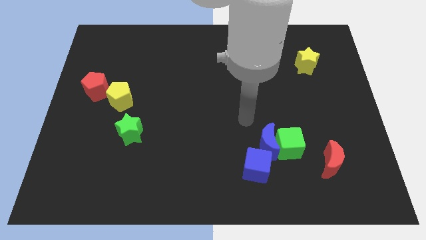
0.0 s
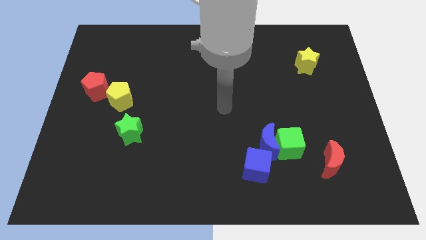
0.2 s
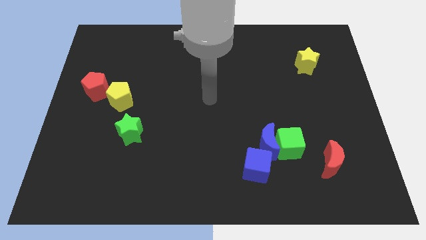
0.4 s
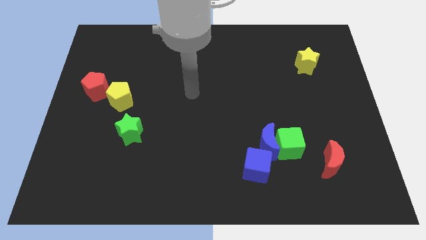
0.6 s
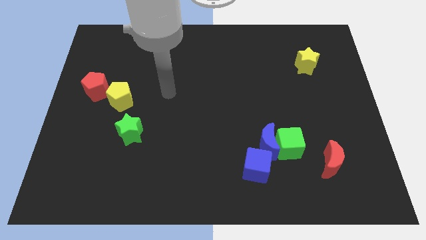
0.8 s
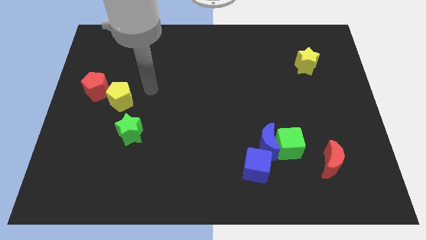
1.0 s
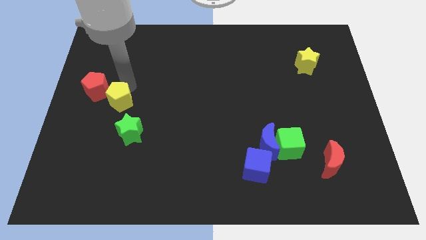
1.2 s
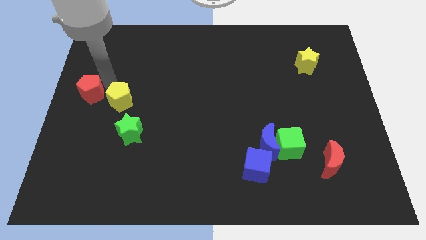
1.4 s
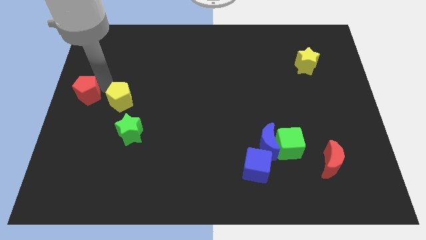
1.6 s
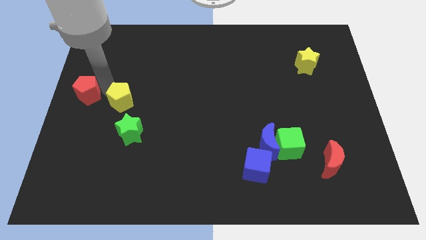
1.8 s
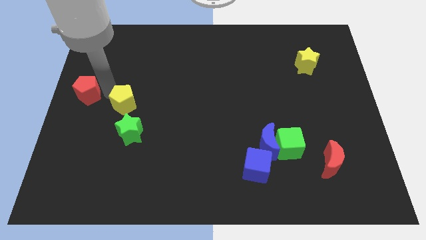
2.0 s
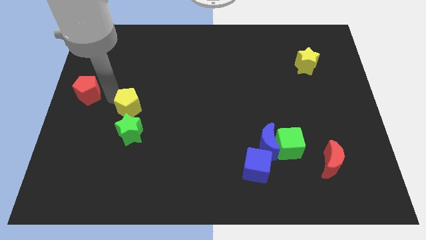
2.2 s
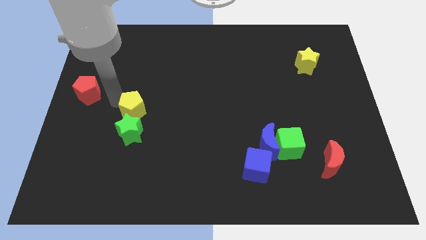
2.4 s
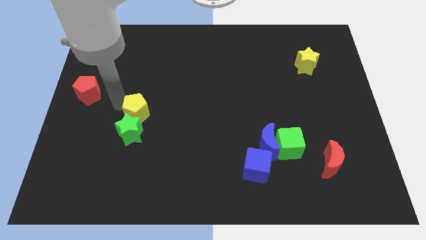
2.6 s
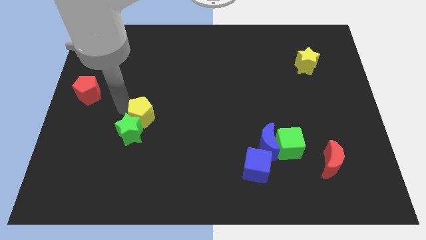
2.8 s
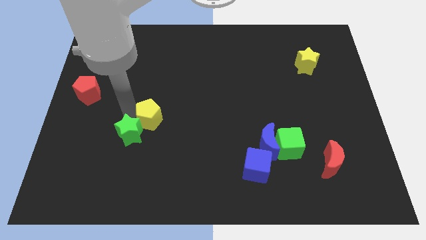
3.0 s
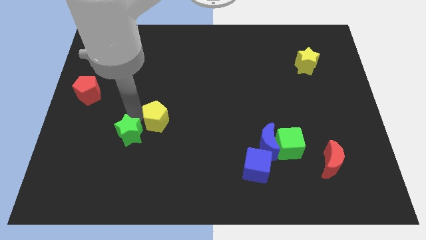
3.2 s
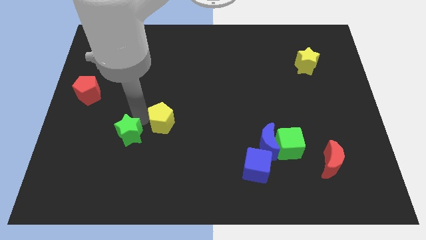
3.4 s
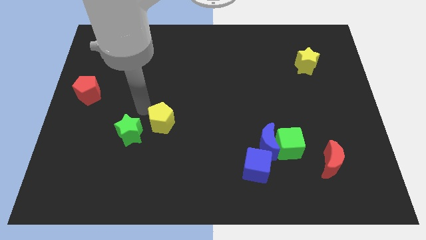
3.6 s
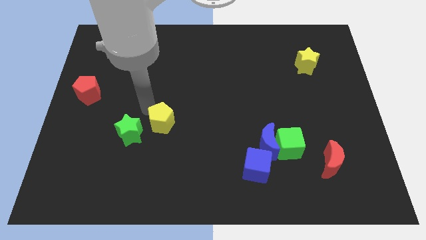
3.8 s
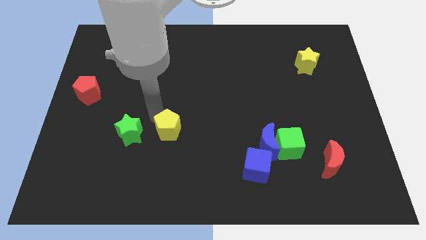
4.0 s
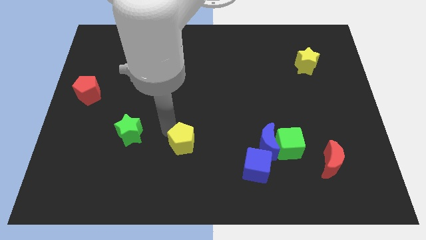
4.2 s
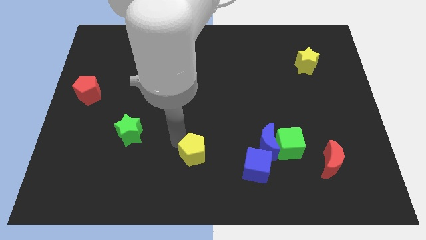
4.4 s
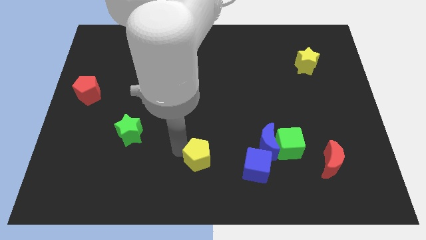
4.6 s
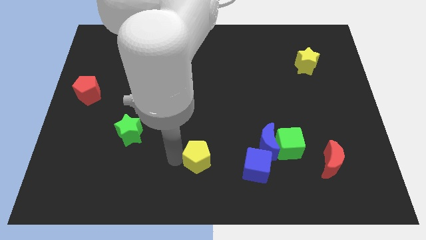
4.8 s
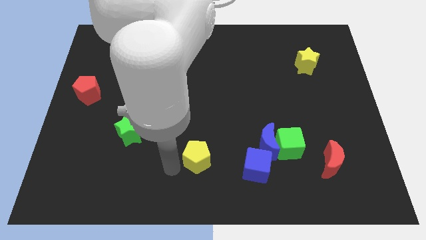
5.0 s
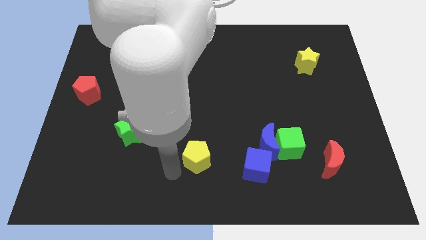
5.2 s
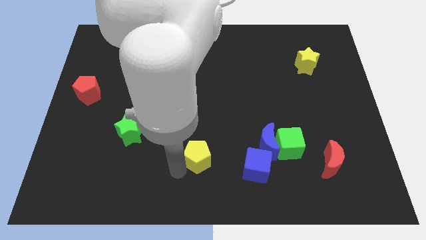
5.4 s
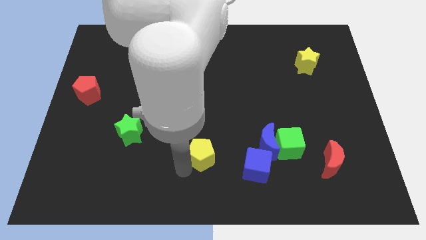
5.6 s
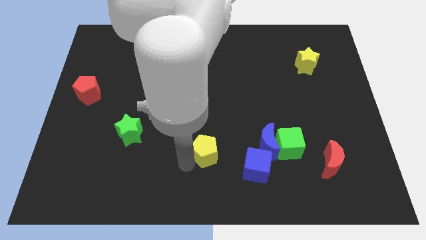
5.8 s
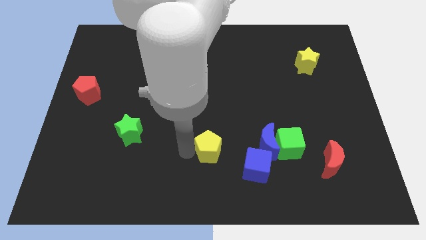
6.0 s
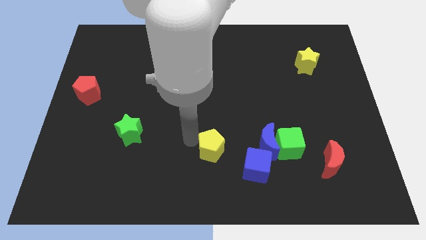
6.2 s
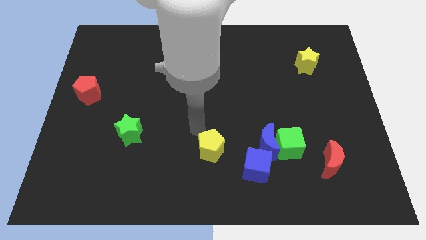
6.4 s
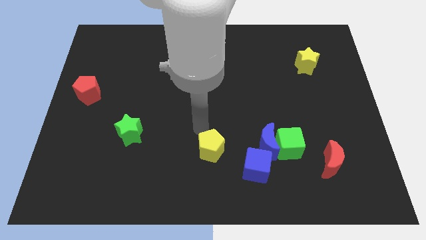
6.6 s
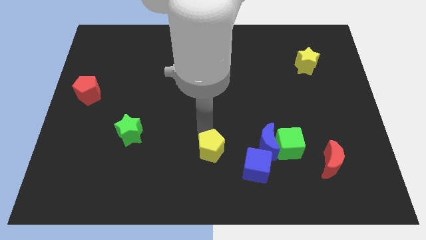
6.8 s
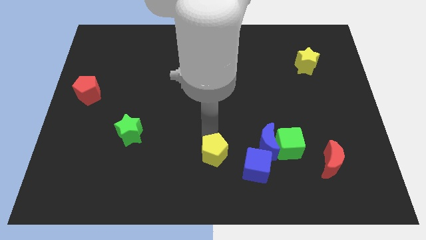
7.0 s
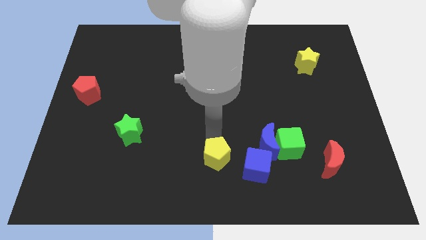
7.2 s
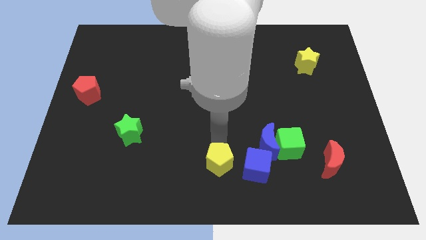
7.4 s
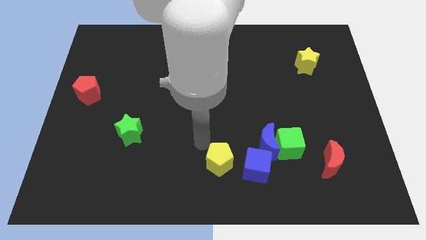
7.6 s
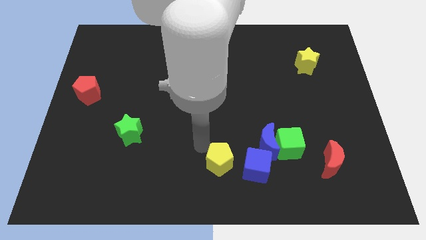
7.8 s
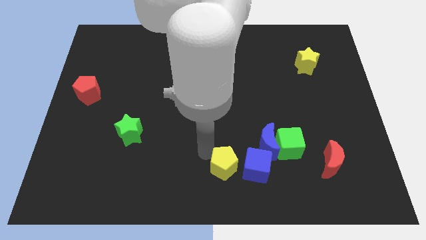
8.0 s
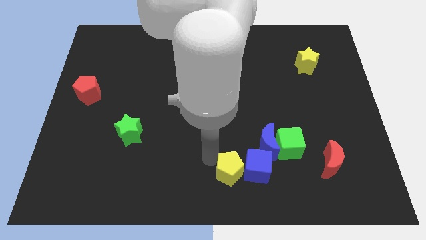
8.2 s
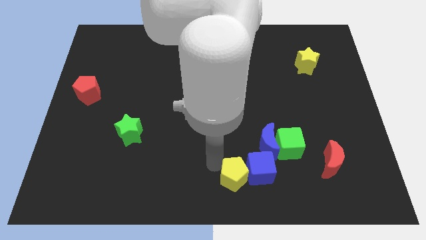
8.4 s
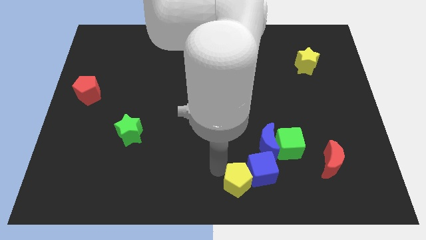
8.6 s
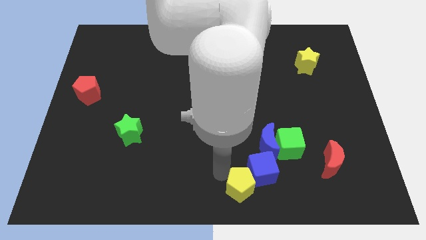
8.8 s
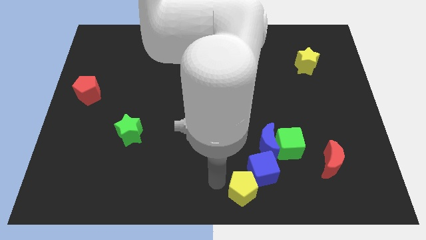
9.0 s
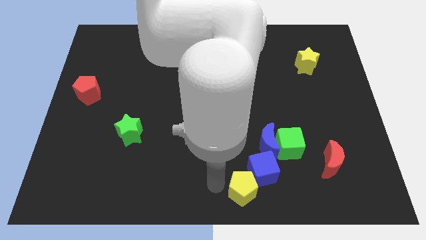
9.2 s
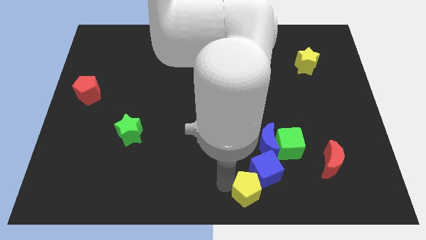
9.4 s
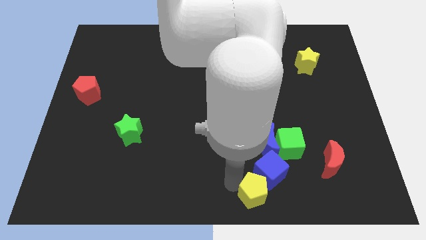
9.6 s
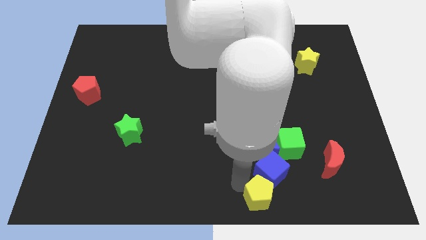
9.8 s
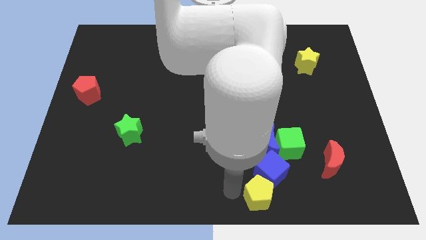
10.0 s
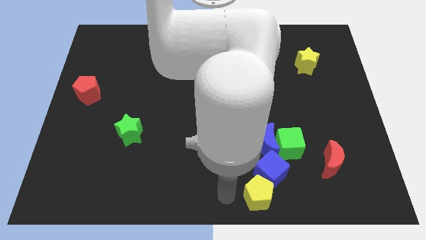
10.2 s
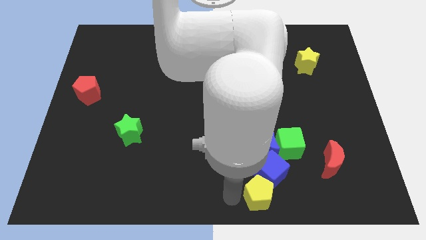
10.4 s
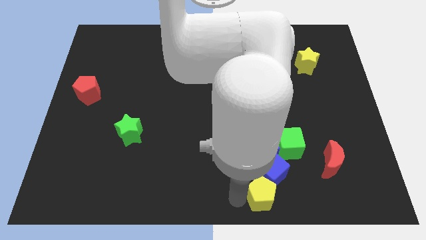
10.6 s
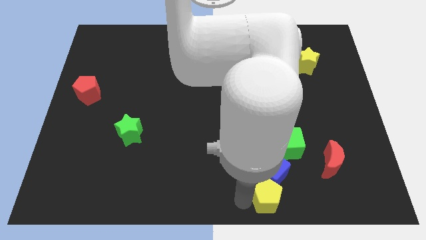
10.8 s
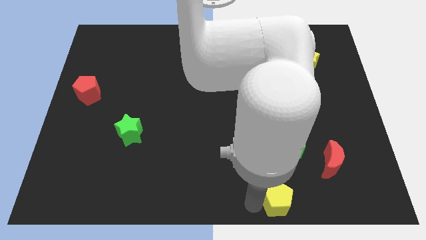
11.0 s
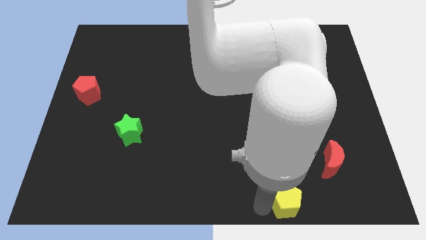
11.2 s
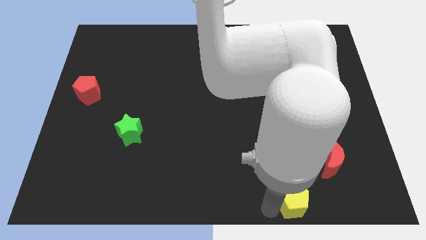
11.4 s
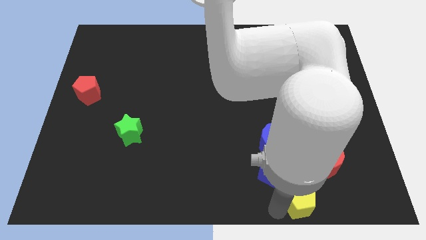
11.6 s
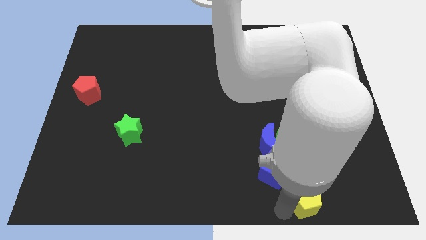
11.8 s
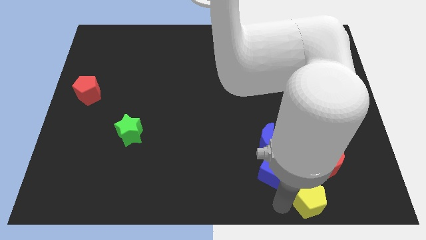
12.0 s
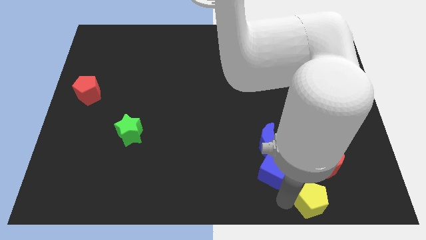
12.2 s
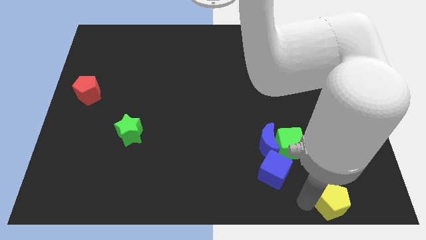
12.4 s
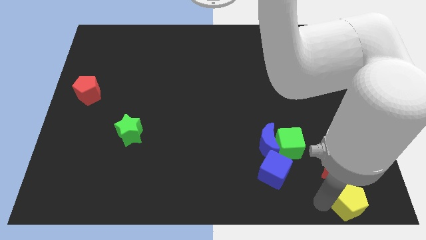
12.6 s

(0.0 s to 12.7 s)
move the yellow pentagon to the bottom right
